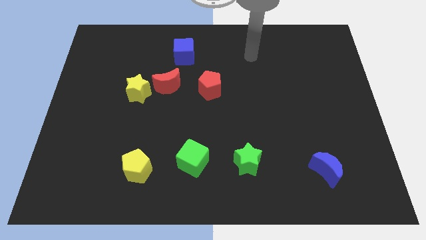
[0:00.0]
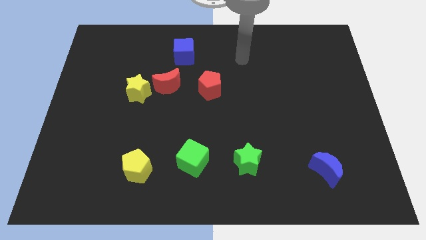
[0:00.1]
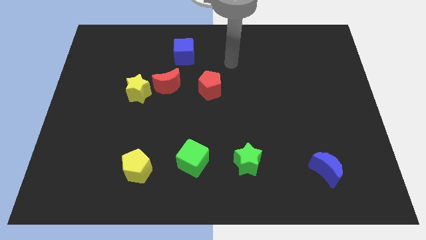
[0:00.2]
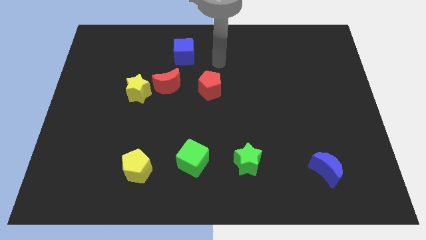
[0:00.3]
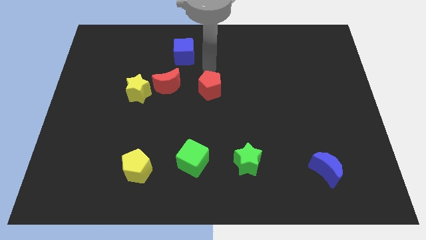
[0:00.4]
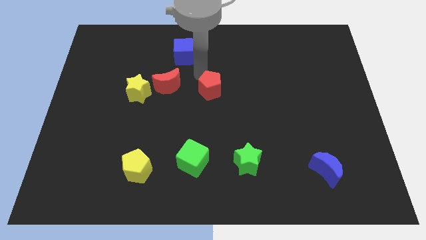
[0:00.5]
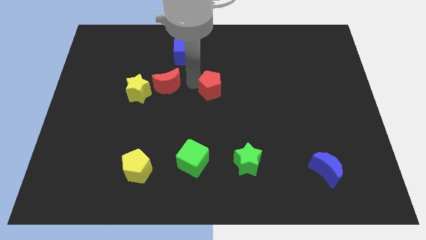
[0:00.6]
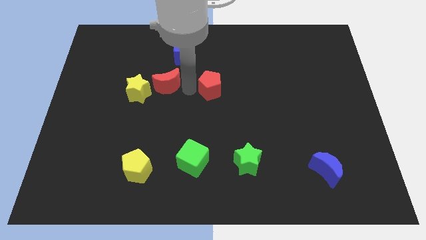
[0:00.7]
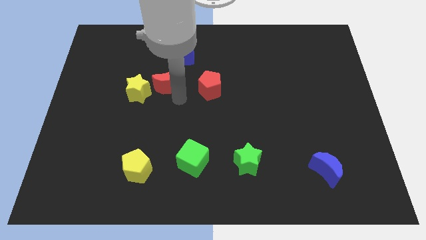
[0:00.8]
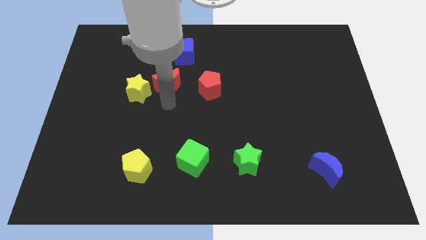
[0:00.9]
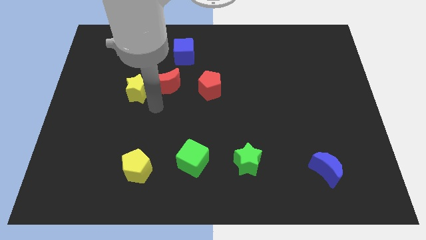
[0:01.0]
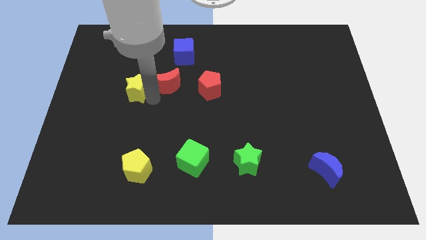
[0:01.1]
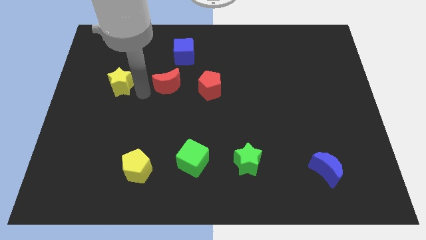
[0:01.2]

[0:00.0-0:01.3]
move the red moon away from the yellow star

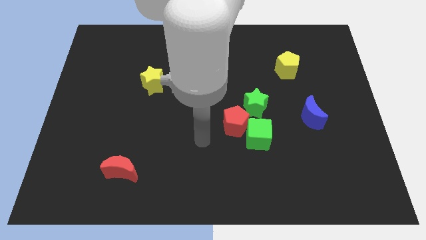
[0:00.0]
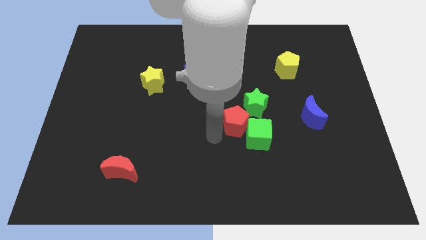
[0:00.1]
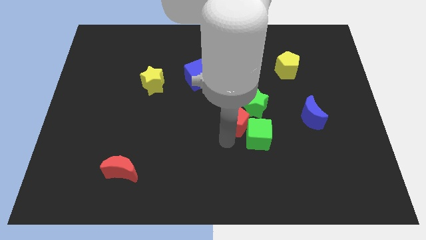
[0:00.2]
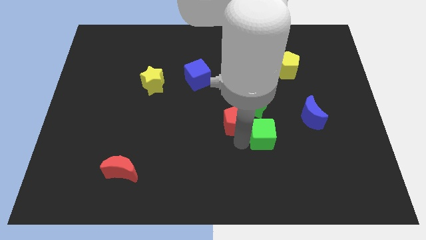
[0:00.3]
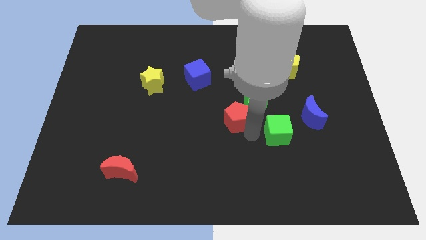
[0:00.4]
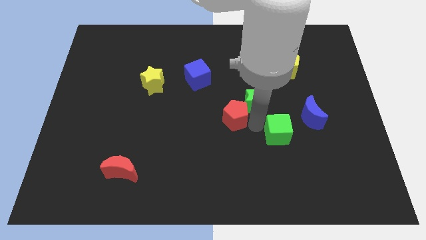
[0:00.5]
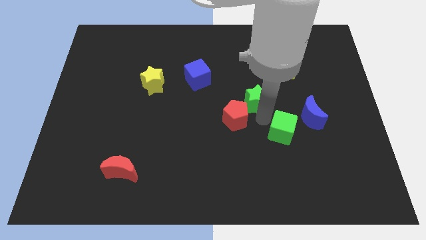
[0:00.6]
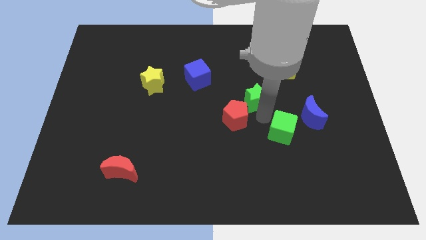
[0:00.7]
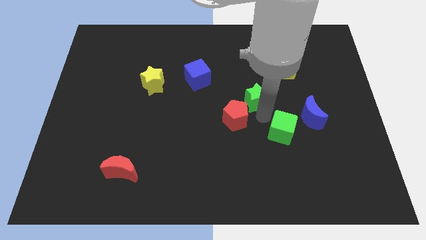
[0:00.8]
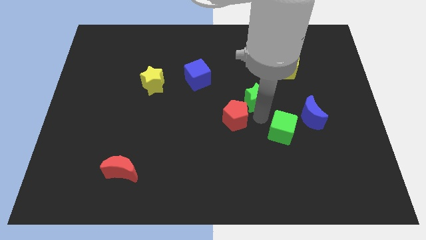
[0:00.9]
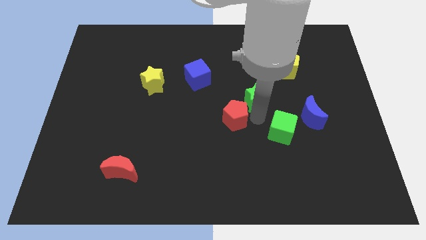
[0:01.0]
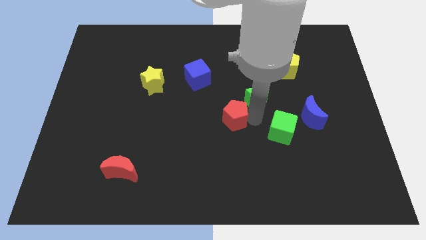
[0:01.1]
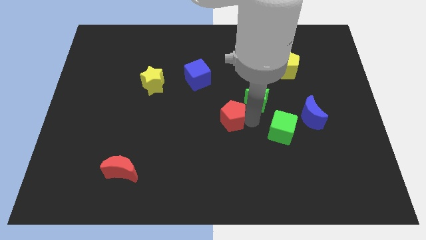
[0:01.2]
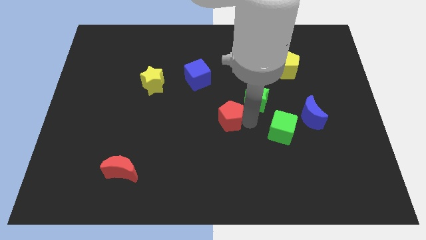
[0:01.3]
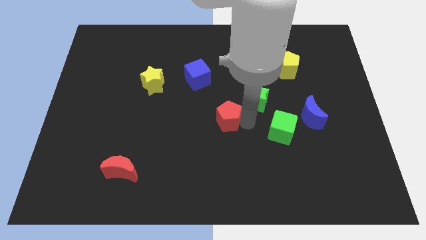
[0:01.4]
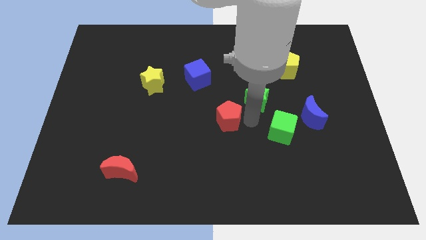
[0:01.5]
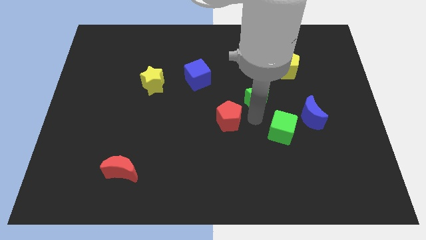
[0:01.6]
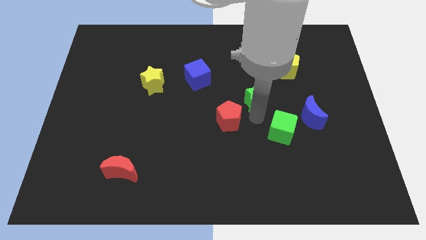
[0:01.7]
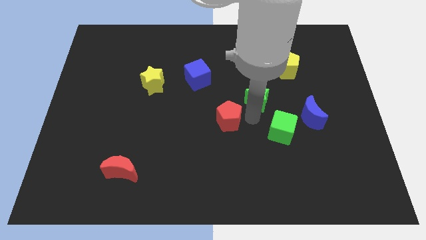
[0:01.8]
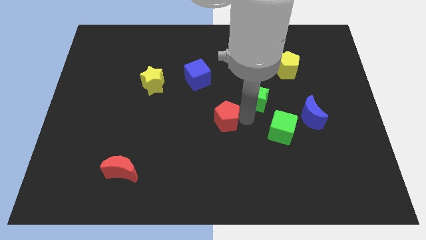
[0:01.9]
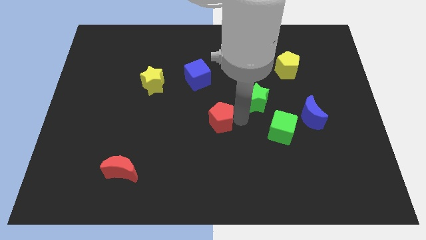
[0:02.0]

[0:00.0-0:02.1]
pull the red pentagon apart from the green cube and green star

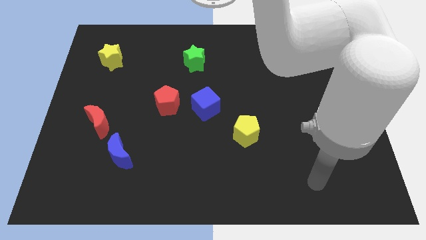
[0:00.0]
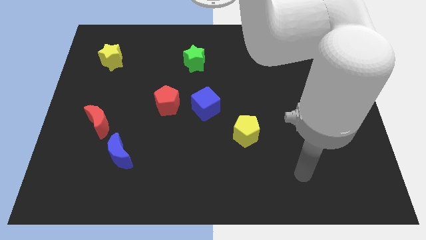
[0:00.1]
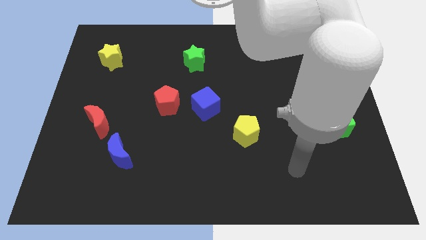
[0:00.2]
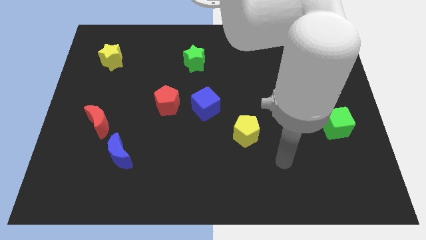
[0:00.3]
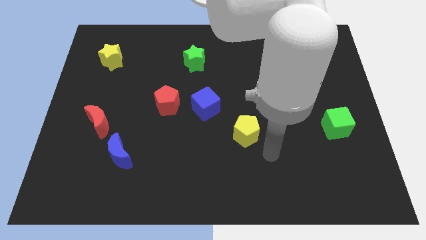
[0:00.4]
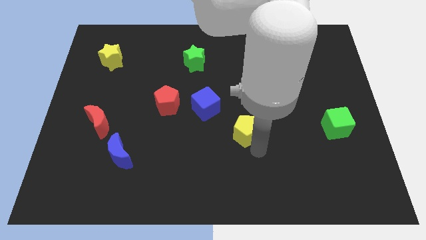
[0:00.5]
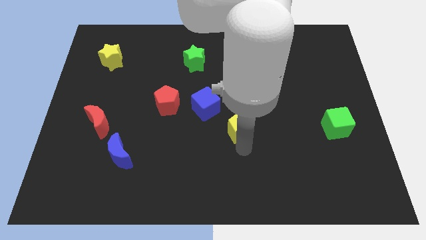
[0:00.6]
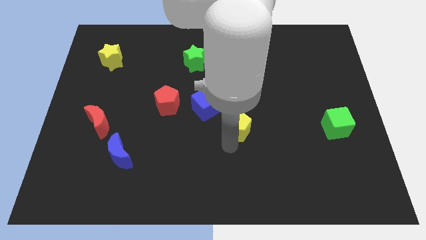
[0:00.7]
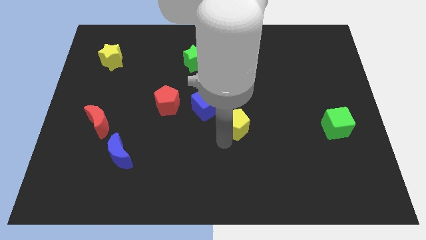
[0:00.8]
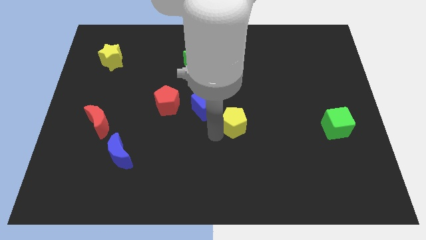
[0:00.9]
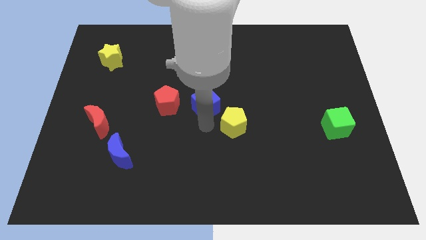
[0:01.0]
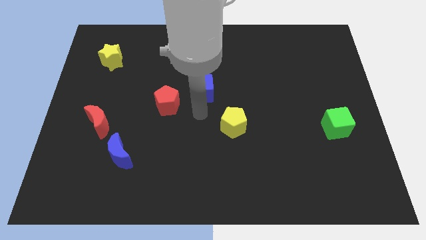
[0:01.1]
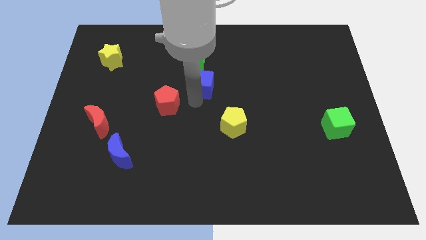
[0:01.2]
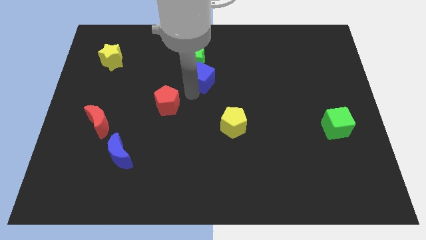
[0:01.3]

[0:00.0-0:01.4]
separate the red pentagon from the blue cube

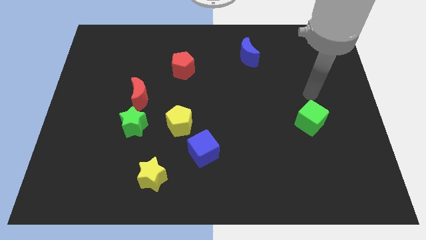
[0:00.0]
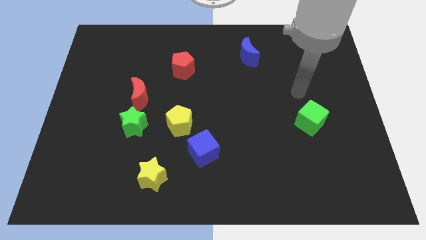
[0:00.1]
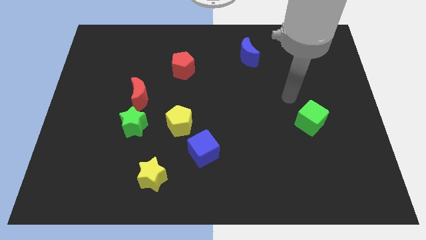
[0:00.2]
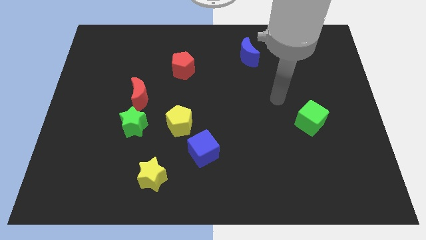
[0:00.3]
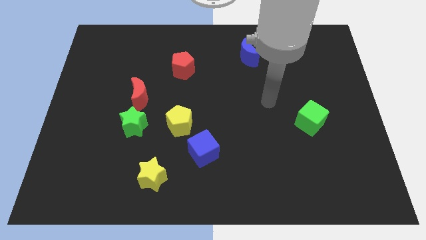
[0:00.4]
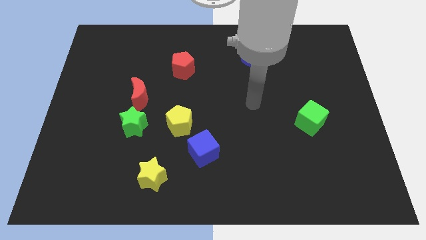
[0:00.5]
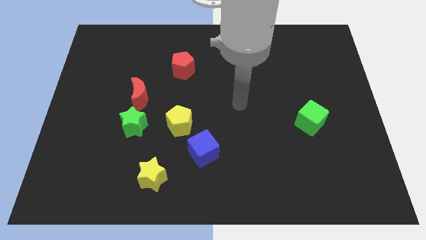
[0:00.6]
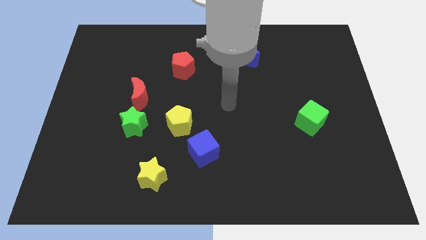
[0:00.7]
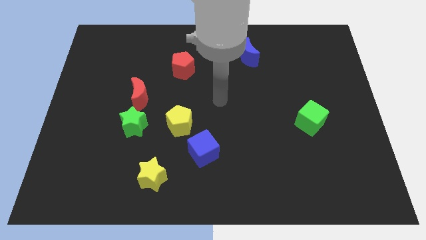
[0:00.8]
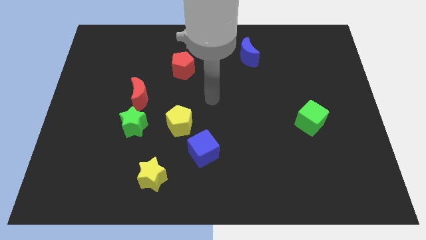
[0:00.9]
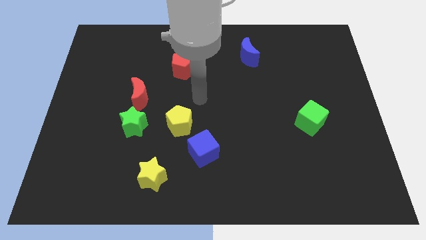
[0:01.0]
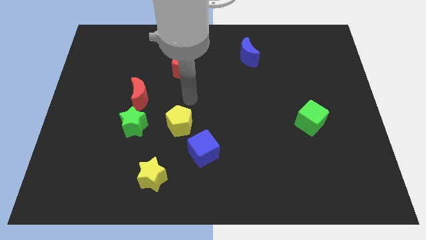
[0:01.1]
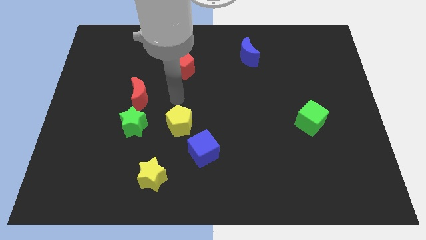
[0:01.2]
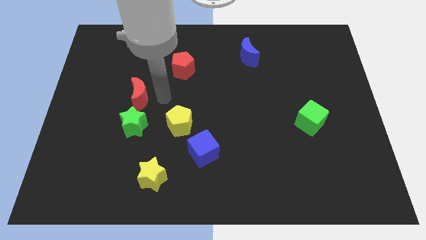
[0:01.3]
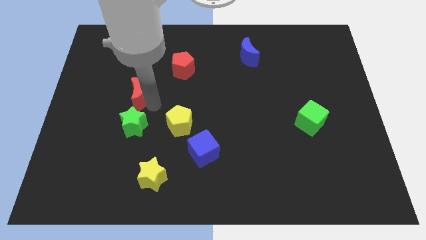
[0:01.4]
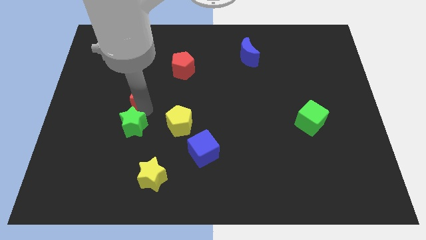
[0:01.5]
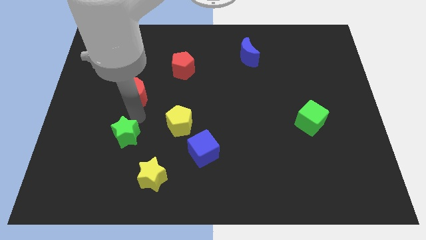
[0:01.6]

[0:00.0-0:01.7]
move the red moon away from the green star

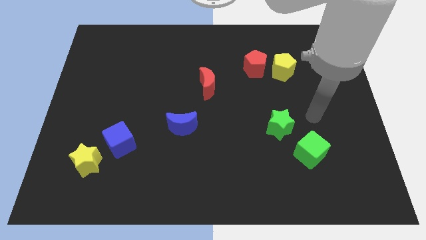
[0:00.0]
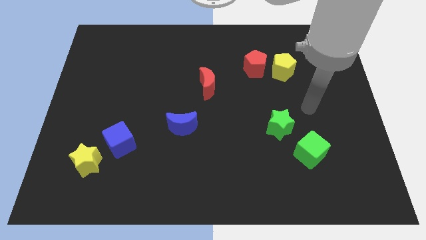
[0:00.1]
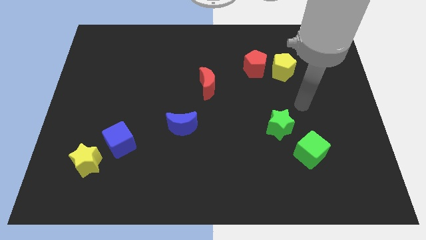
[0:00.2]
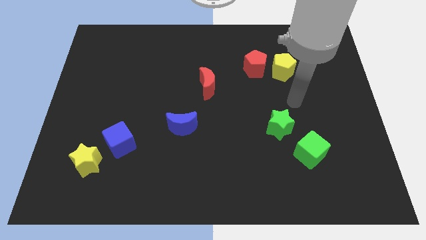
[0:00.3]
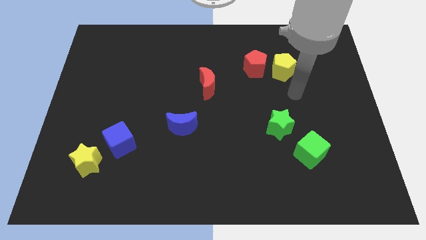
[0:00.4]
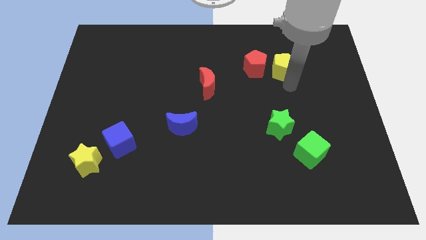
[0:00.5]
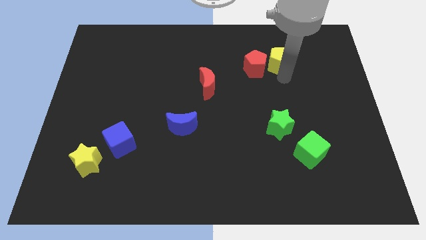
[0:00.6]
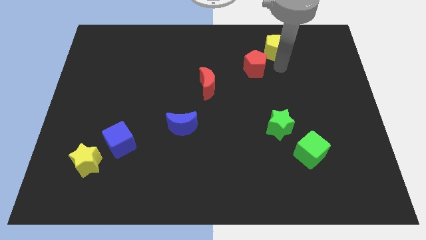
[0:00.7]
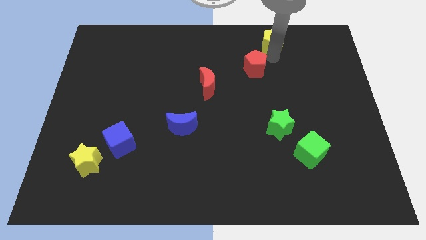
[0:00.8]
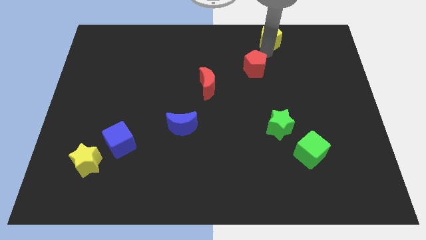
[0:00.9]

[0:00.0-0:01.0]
move the red pentagon away from the yellow pentagon

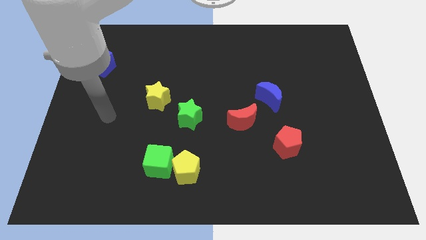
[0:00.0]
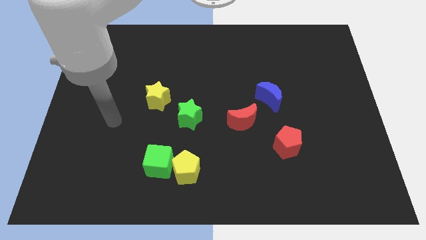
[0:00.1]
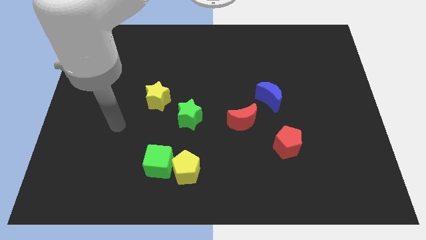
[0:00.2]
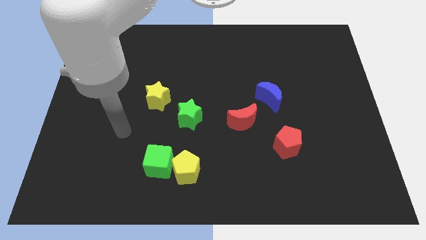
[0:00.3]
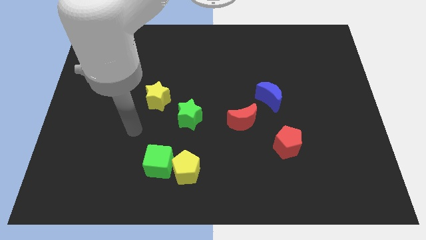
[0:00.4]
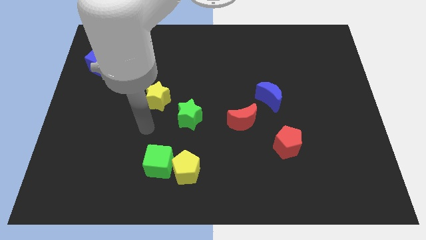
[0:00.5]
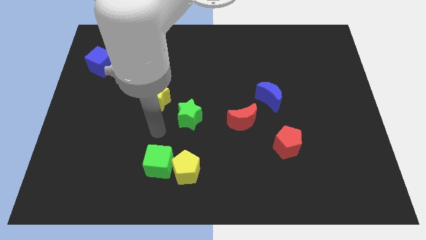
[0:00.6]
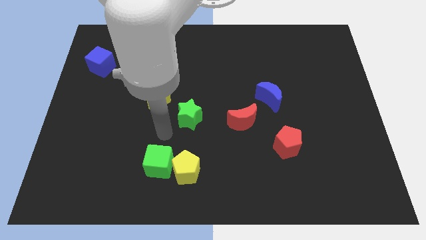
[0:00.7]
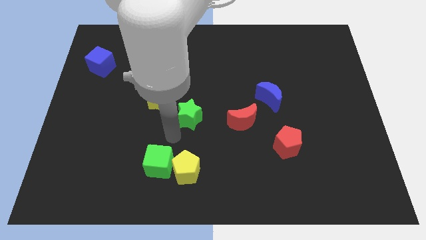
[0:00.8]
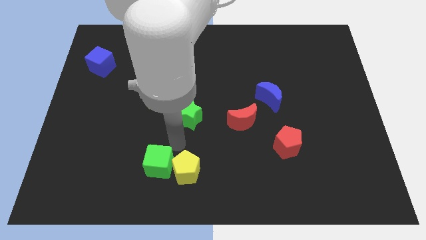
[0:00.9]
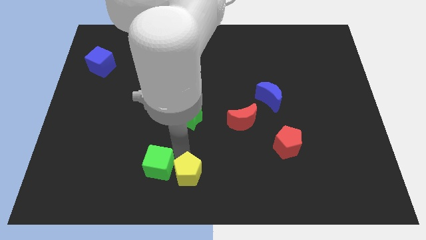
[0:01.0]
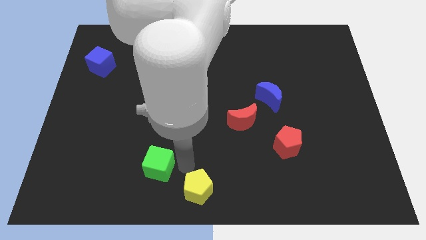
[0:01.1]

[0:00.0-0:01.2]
move the green cube away from the yellow pentagon

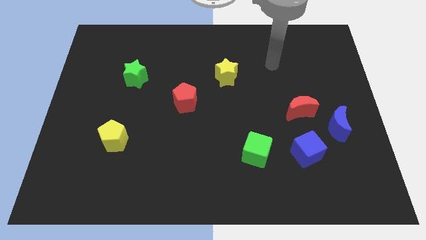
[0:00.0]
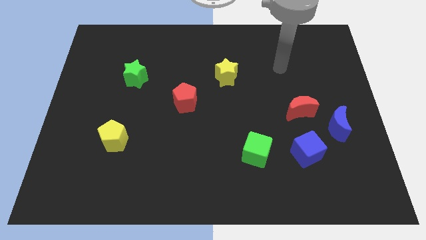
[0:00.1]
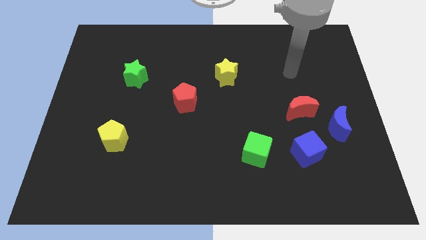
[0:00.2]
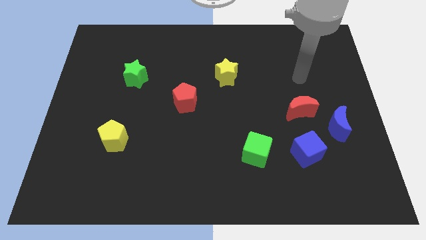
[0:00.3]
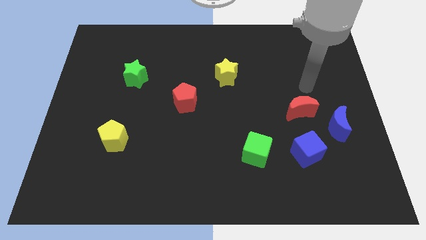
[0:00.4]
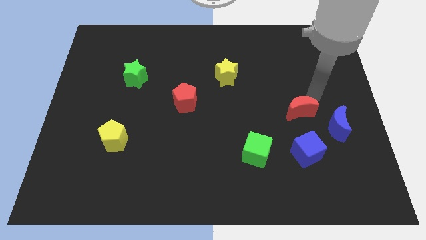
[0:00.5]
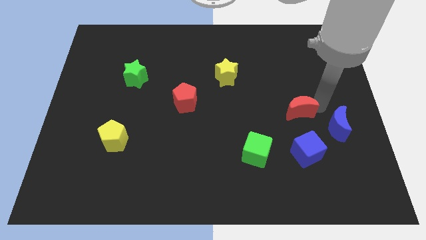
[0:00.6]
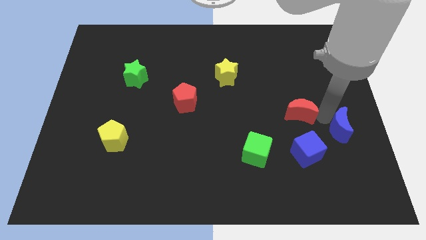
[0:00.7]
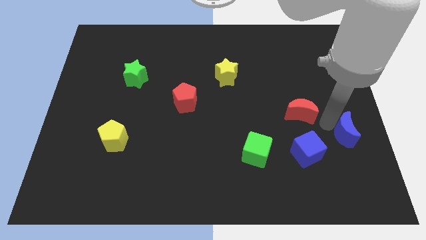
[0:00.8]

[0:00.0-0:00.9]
separate the red moon from the blue moon
